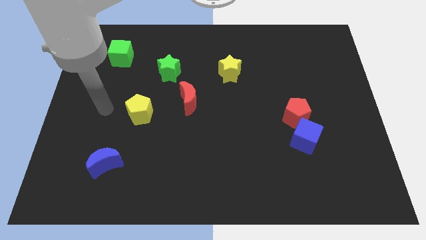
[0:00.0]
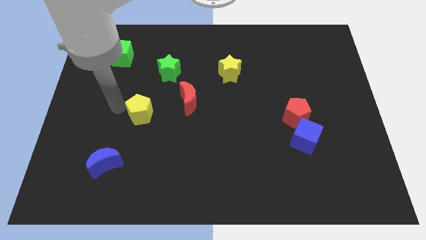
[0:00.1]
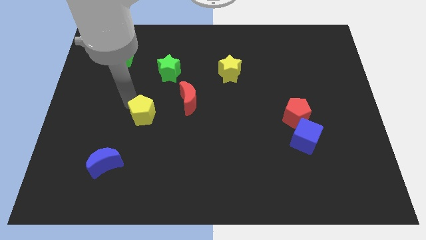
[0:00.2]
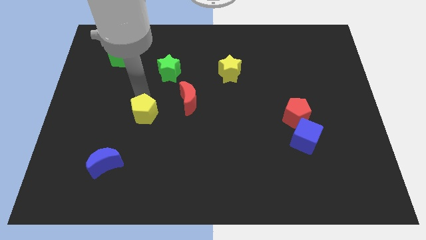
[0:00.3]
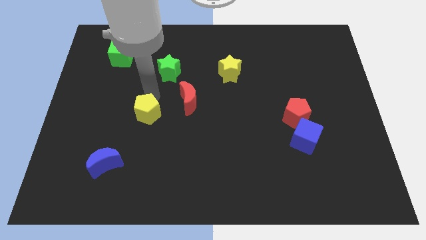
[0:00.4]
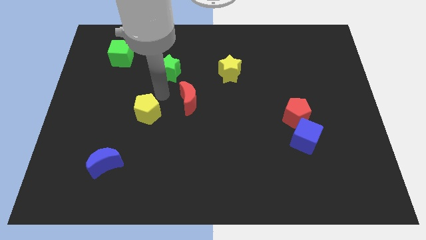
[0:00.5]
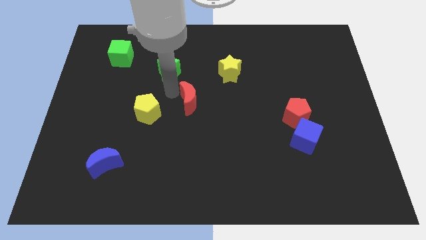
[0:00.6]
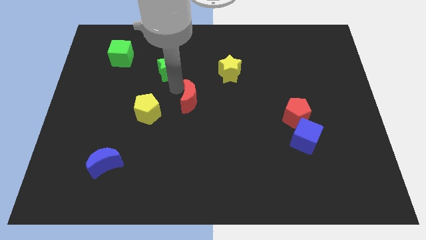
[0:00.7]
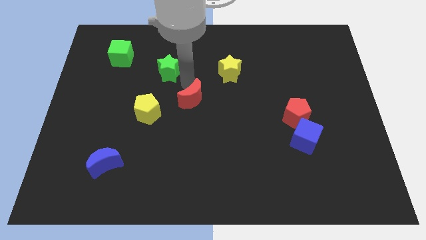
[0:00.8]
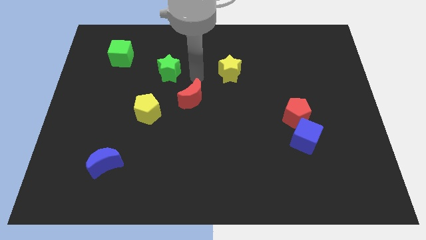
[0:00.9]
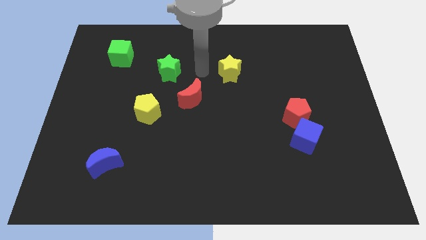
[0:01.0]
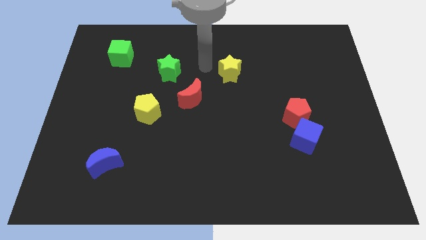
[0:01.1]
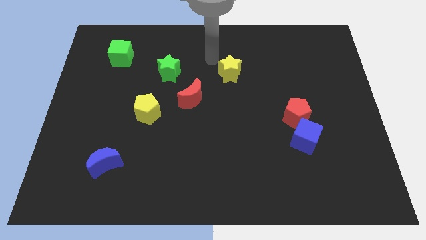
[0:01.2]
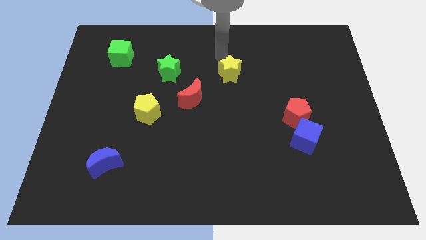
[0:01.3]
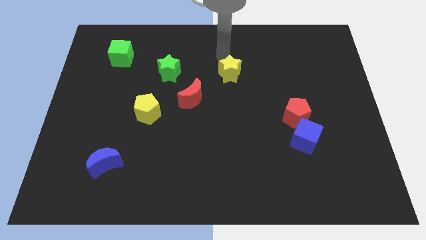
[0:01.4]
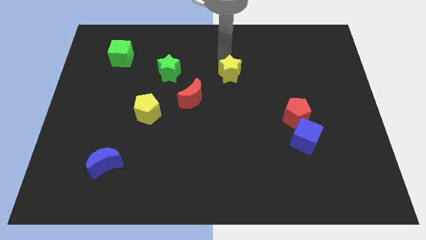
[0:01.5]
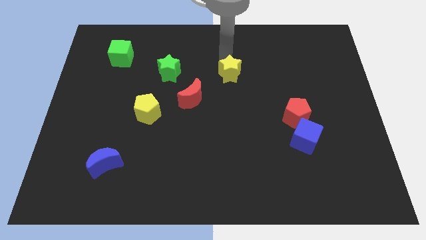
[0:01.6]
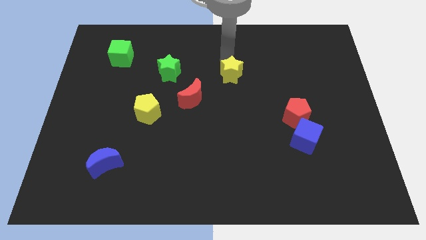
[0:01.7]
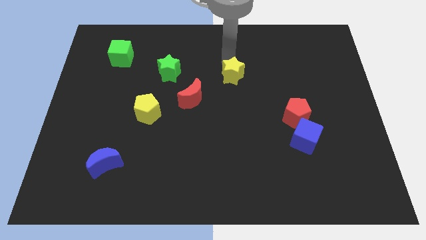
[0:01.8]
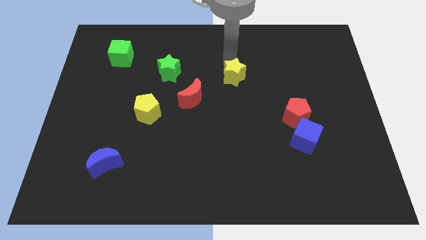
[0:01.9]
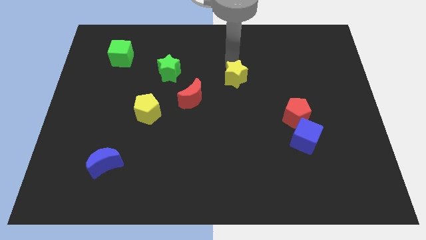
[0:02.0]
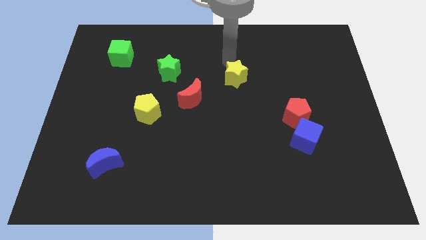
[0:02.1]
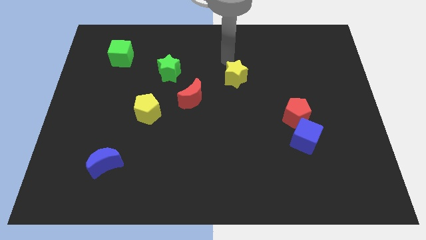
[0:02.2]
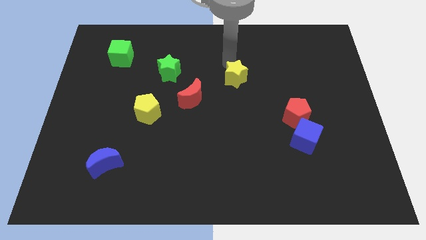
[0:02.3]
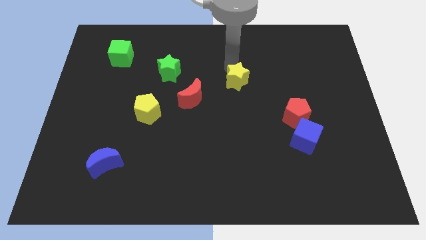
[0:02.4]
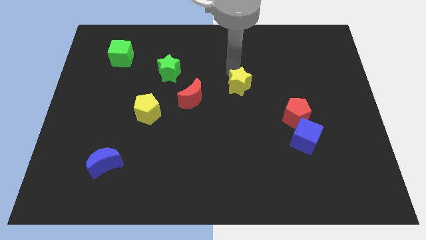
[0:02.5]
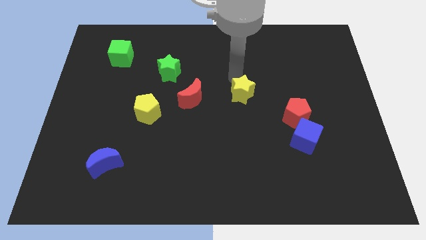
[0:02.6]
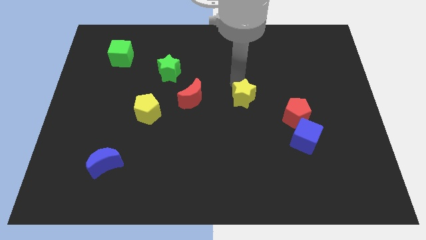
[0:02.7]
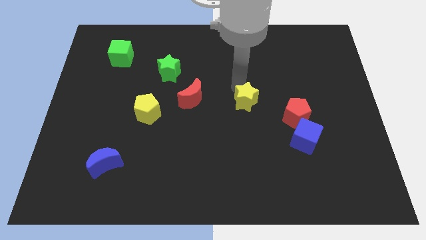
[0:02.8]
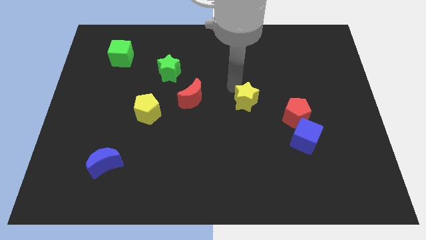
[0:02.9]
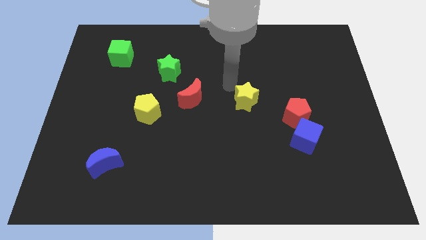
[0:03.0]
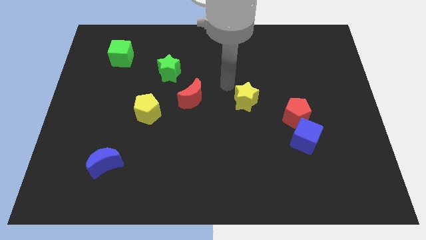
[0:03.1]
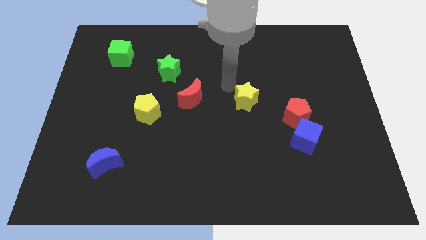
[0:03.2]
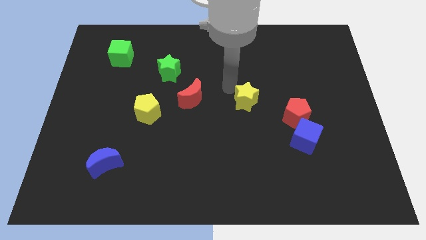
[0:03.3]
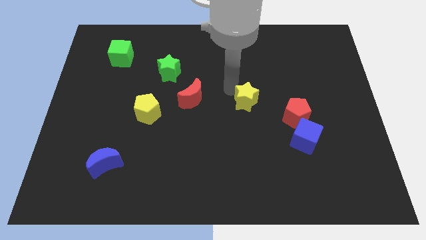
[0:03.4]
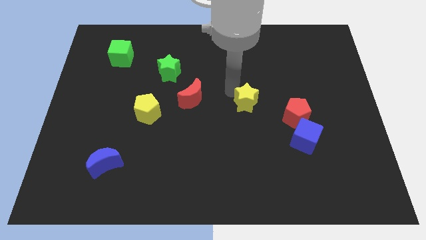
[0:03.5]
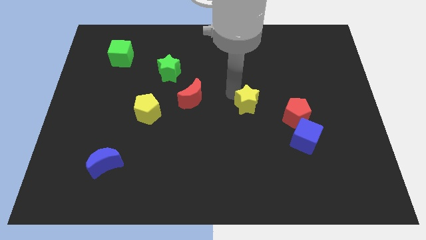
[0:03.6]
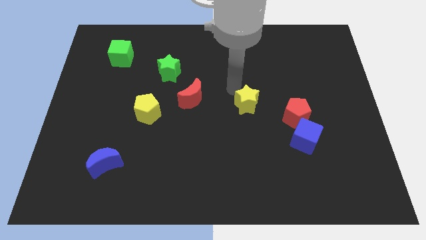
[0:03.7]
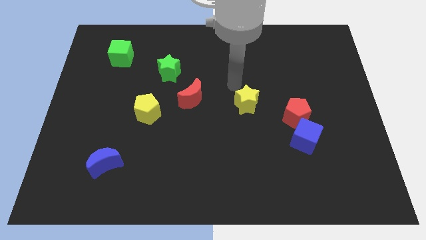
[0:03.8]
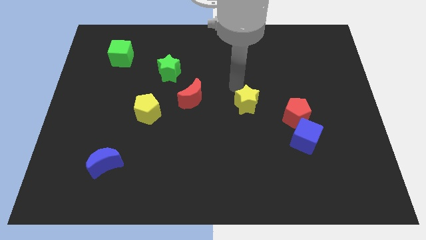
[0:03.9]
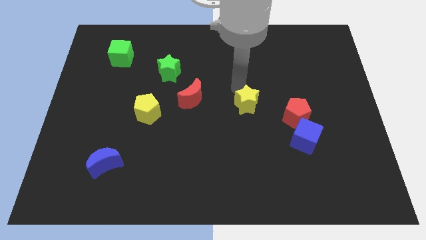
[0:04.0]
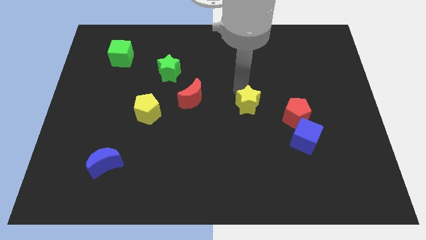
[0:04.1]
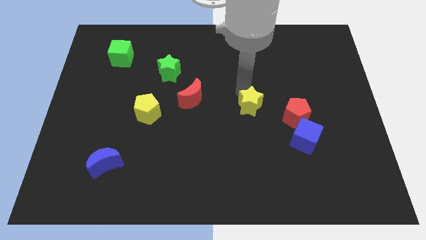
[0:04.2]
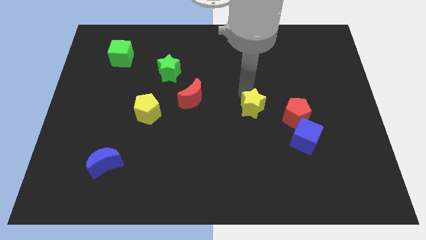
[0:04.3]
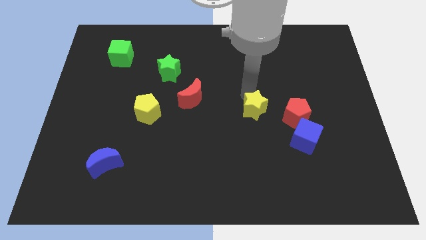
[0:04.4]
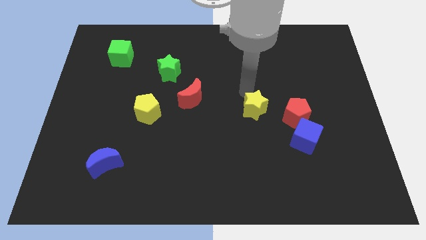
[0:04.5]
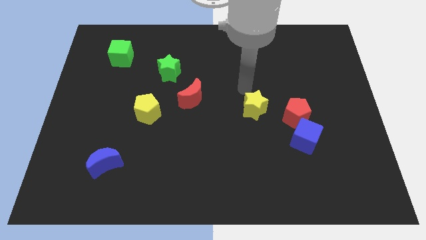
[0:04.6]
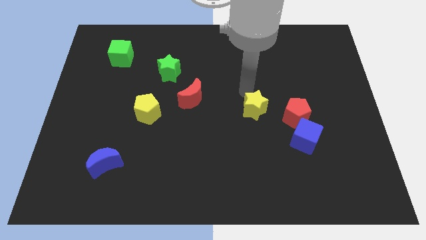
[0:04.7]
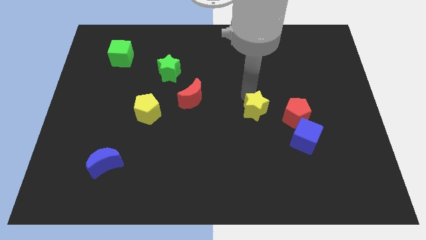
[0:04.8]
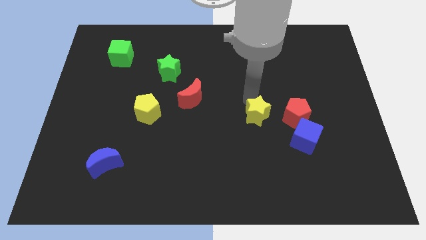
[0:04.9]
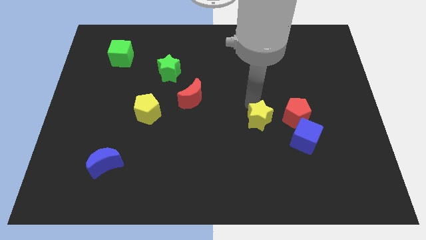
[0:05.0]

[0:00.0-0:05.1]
move the yellow star diagonally down and to the left of the red pentagon

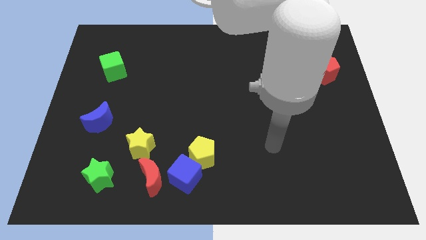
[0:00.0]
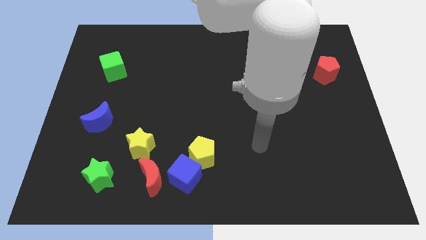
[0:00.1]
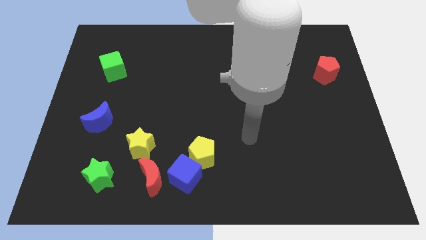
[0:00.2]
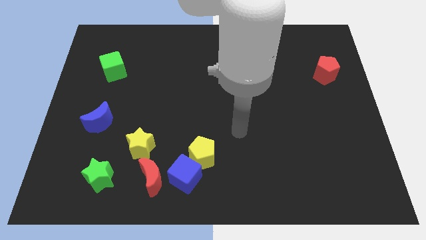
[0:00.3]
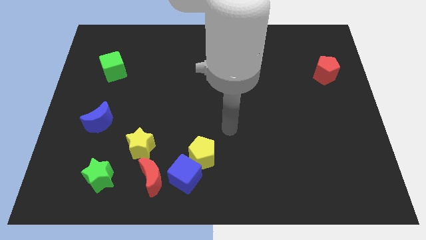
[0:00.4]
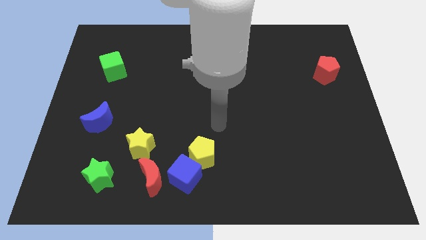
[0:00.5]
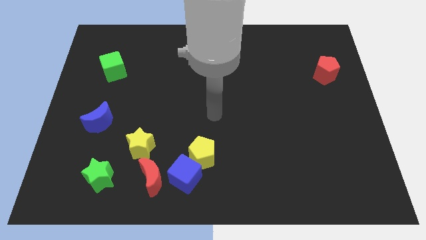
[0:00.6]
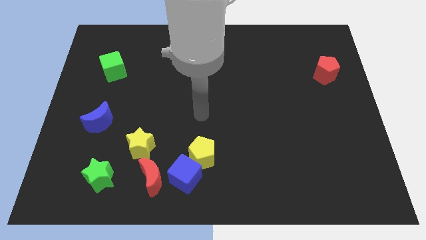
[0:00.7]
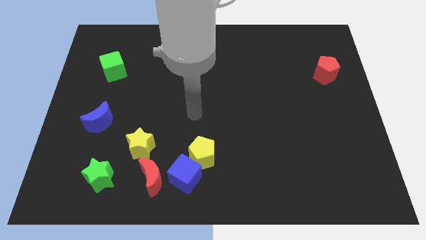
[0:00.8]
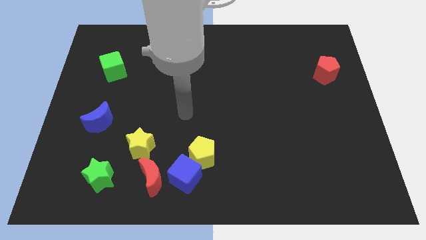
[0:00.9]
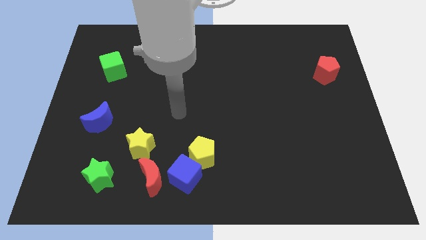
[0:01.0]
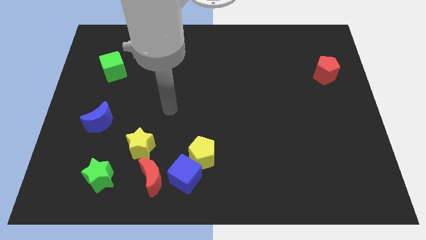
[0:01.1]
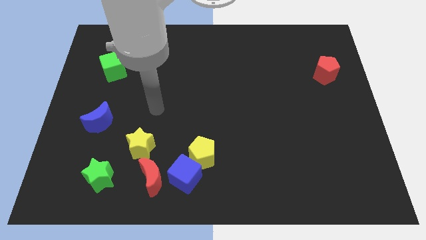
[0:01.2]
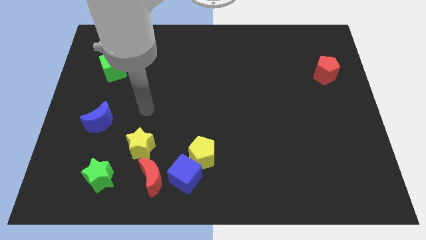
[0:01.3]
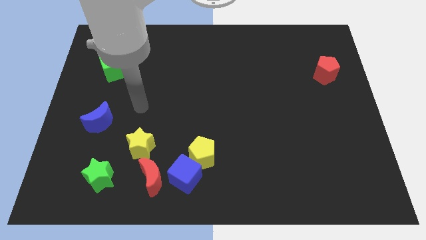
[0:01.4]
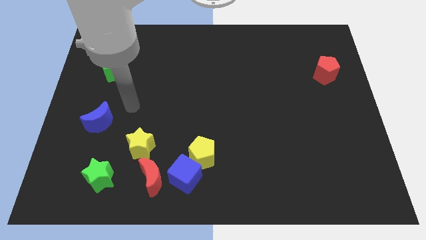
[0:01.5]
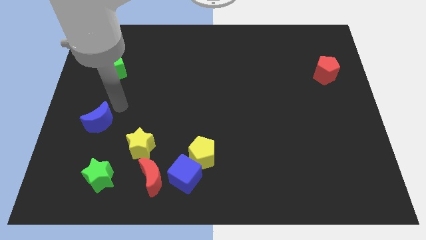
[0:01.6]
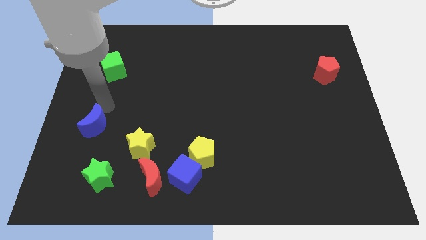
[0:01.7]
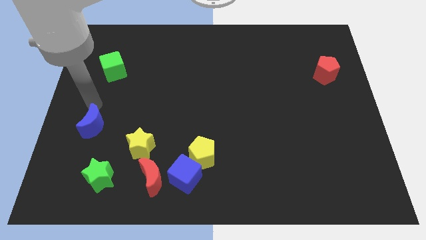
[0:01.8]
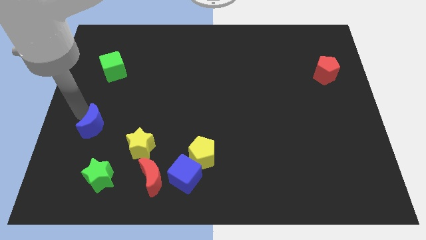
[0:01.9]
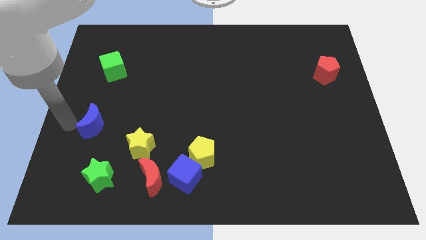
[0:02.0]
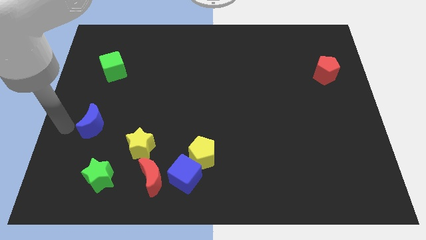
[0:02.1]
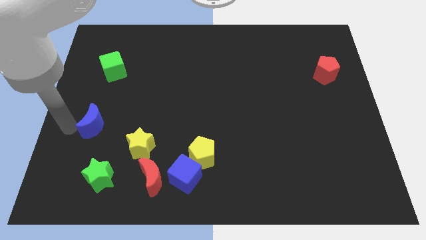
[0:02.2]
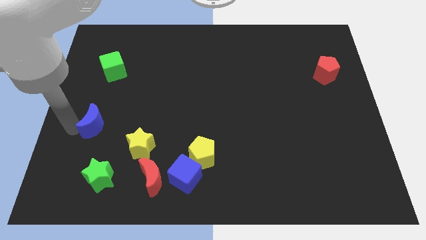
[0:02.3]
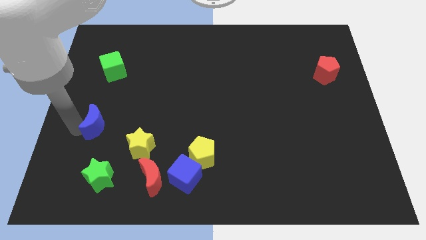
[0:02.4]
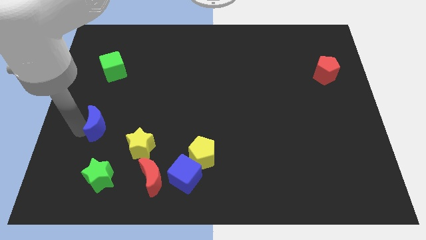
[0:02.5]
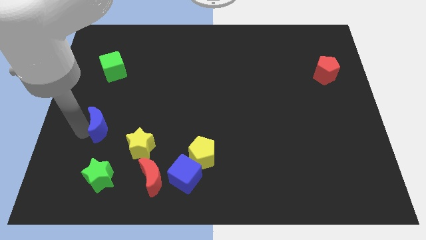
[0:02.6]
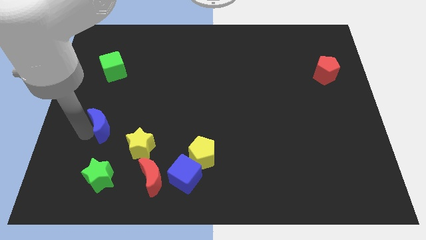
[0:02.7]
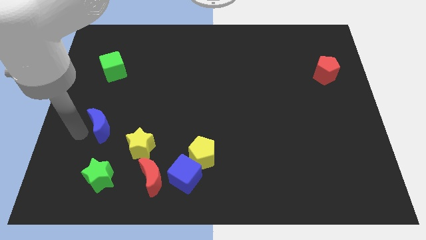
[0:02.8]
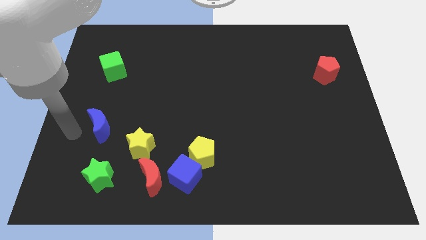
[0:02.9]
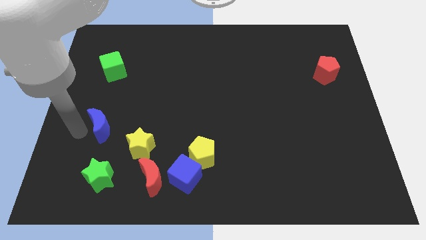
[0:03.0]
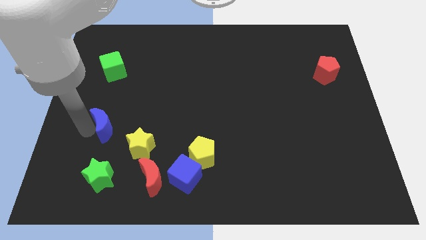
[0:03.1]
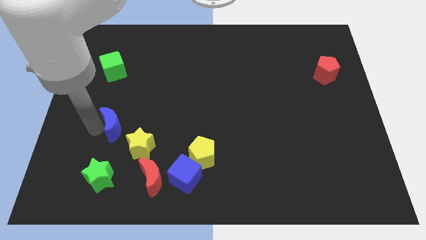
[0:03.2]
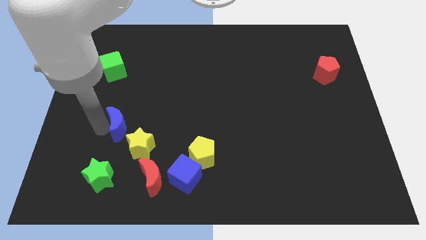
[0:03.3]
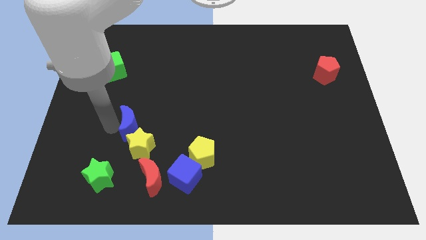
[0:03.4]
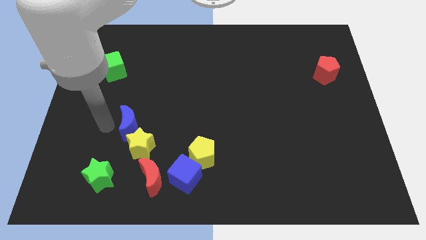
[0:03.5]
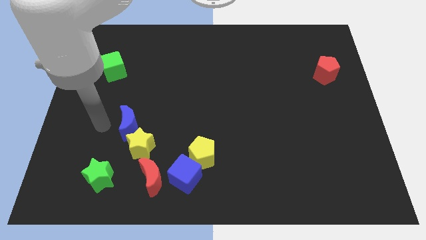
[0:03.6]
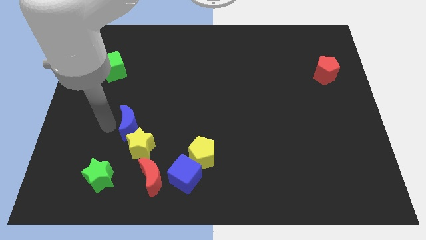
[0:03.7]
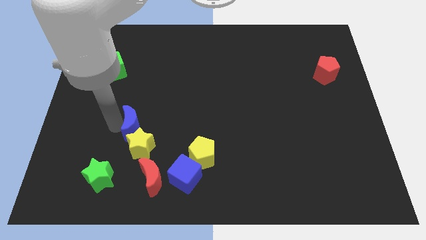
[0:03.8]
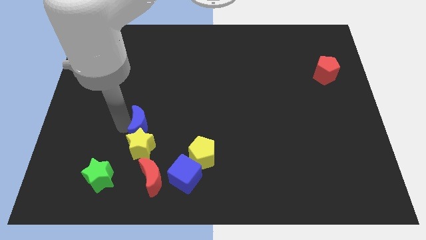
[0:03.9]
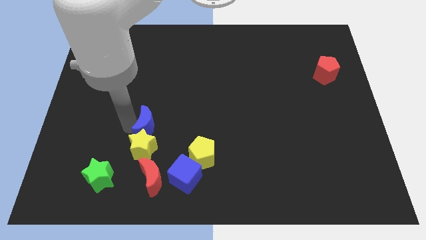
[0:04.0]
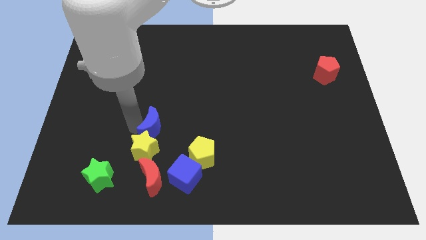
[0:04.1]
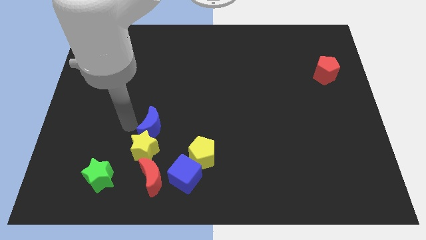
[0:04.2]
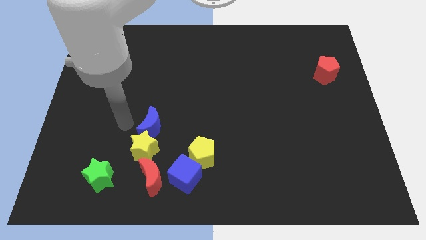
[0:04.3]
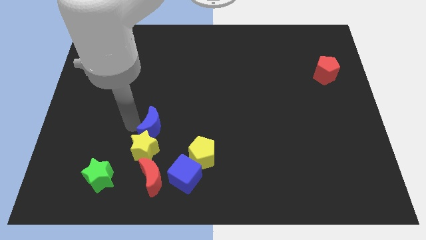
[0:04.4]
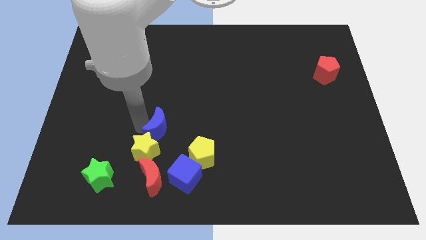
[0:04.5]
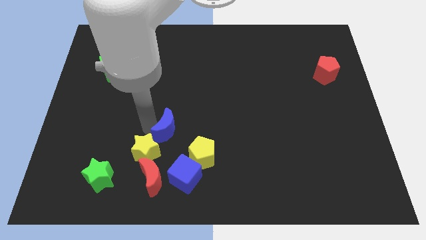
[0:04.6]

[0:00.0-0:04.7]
put the blue moon above the blue cube
